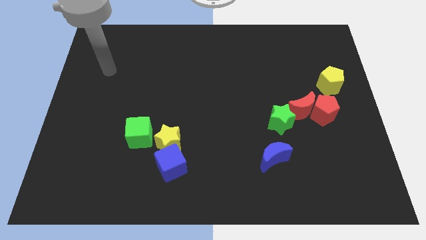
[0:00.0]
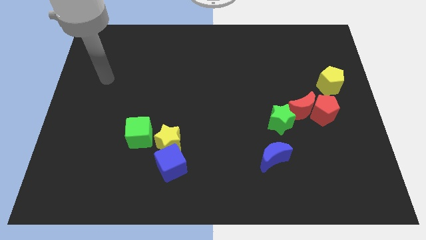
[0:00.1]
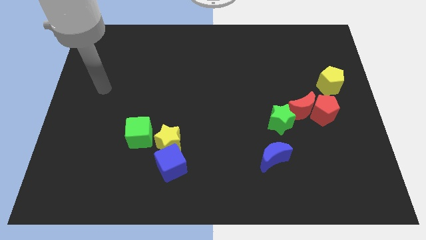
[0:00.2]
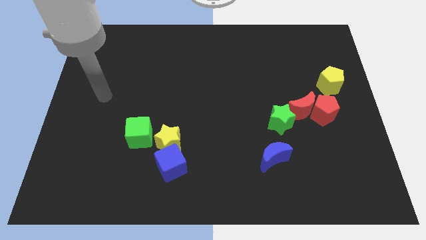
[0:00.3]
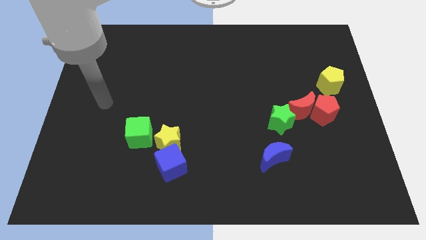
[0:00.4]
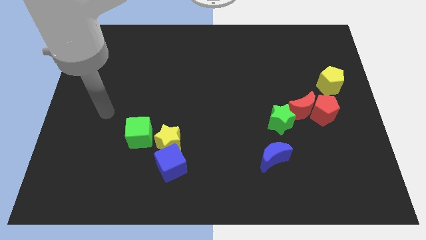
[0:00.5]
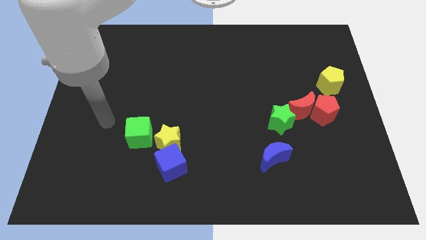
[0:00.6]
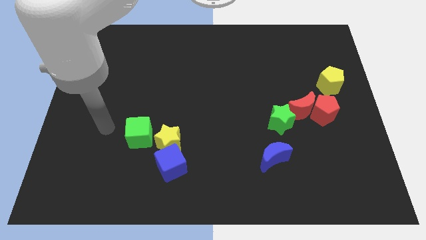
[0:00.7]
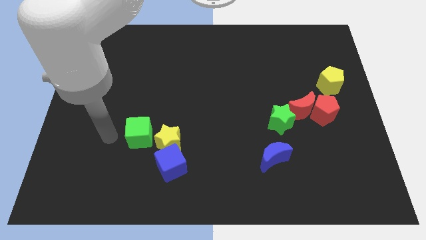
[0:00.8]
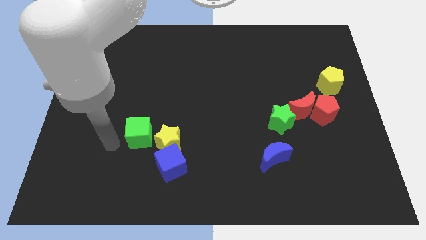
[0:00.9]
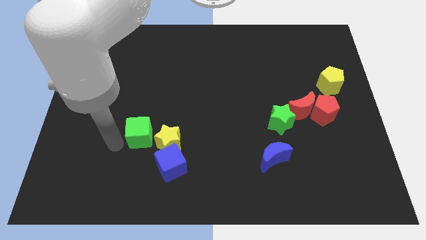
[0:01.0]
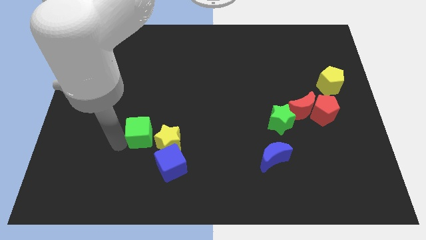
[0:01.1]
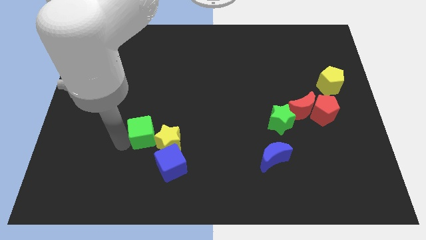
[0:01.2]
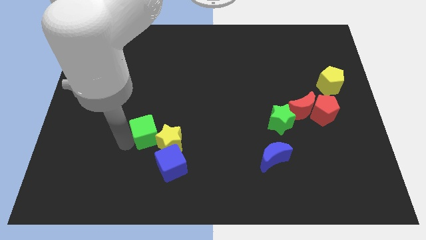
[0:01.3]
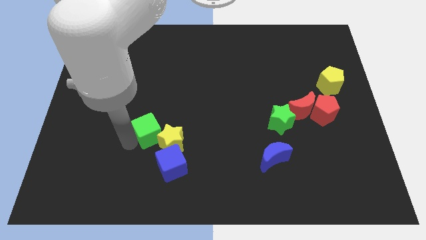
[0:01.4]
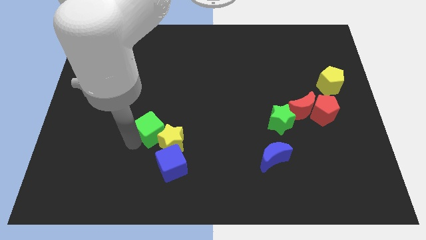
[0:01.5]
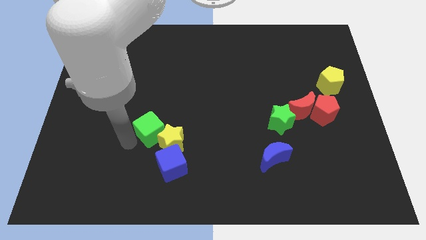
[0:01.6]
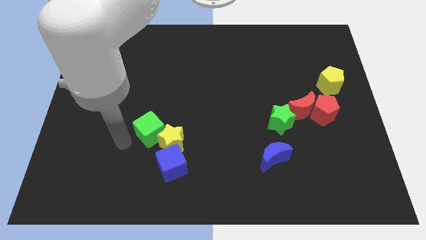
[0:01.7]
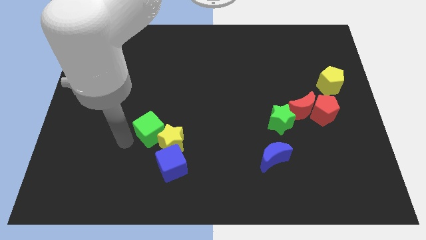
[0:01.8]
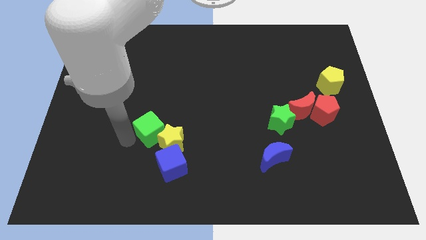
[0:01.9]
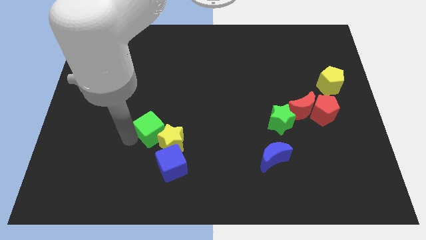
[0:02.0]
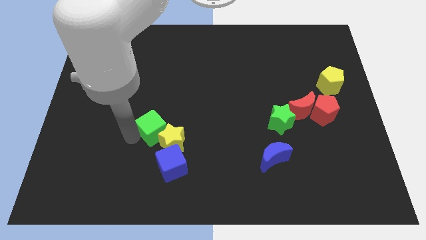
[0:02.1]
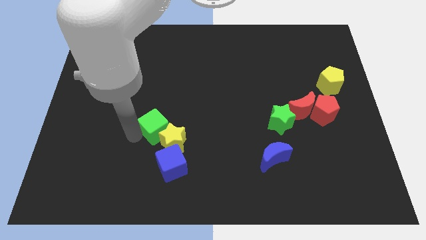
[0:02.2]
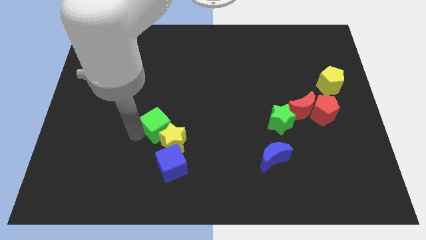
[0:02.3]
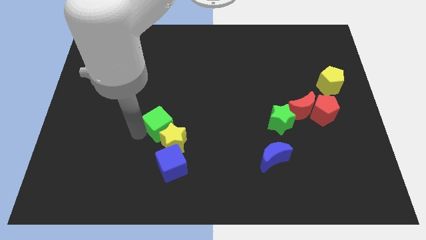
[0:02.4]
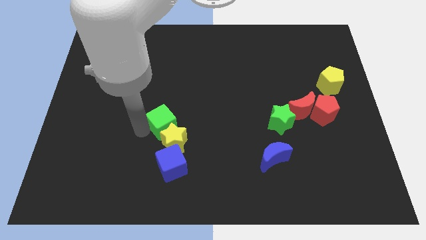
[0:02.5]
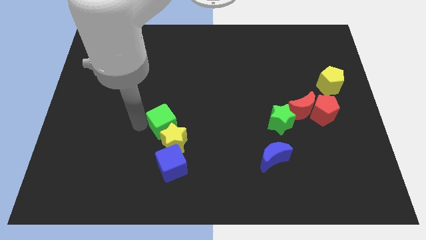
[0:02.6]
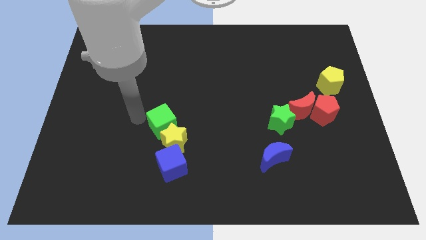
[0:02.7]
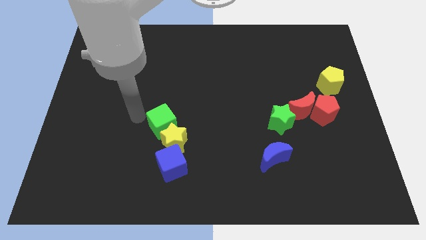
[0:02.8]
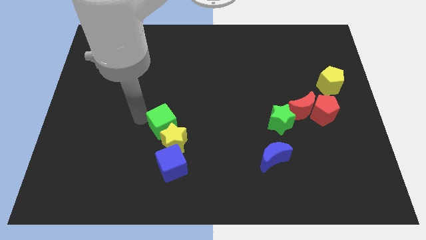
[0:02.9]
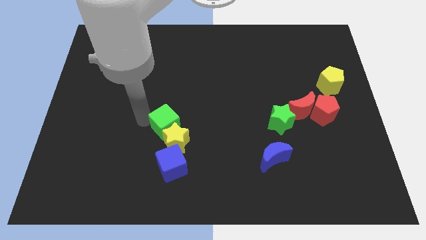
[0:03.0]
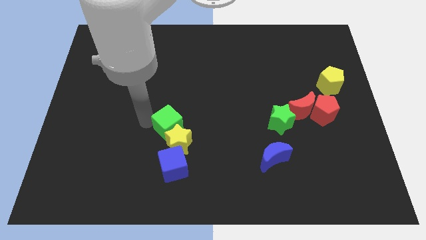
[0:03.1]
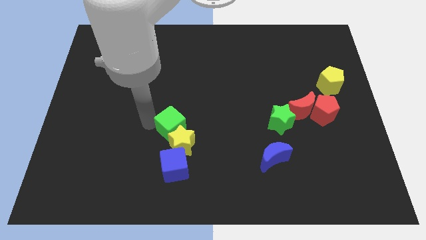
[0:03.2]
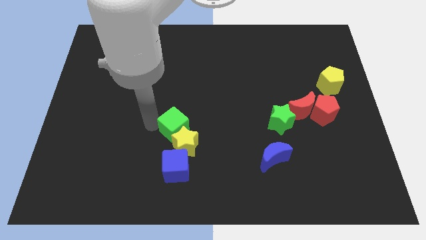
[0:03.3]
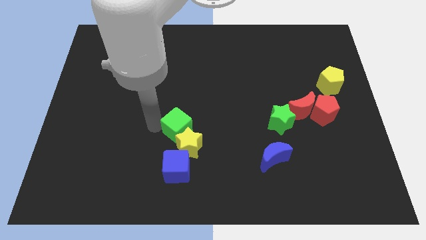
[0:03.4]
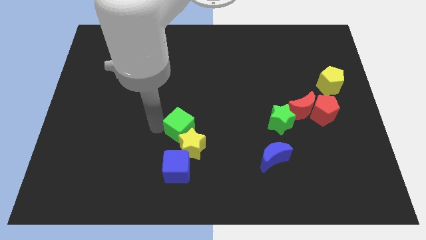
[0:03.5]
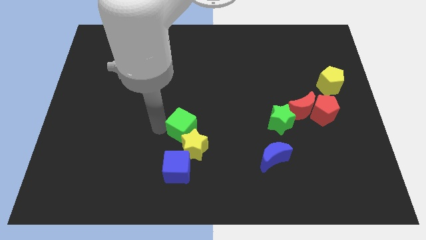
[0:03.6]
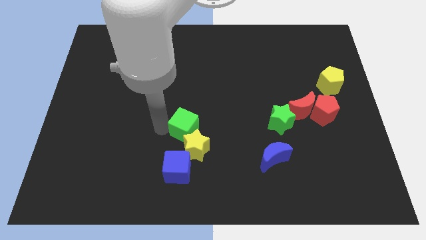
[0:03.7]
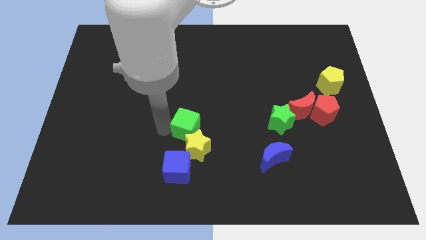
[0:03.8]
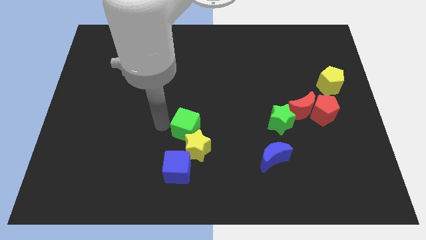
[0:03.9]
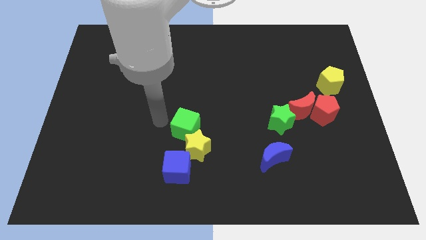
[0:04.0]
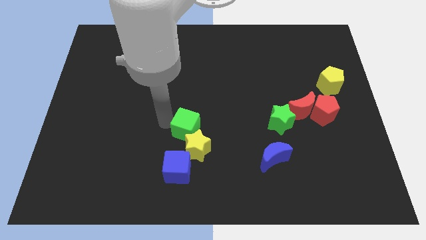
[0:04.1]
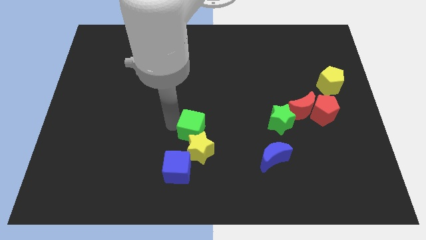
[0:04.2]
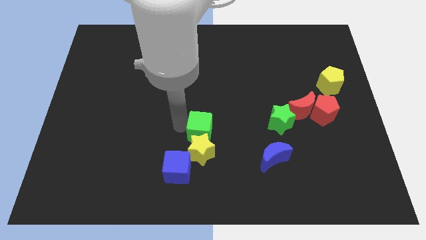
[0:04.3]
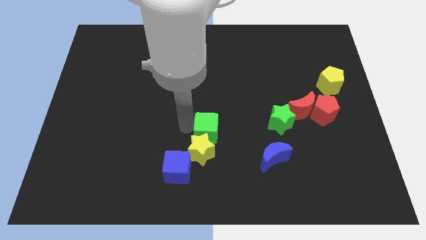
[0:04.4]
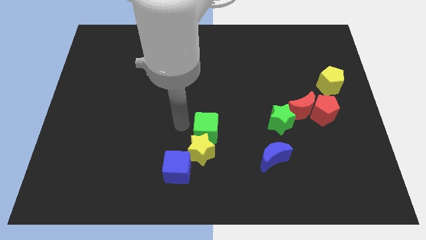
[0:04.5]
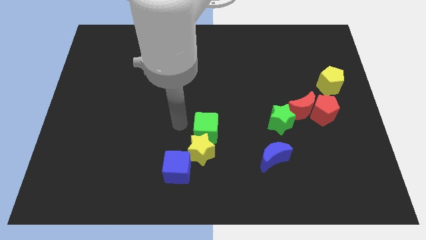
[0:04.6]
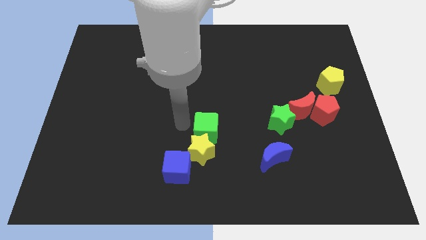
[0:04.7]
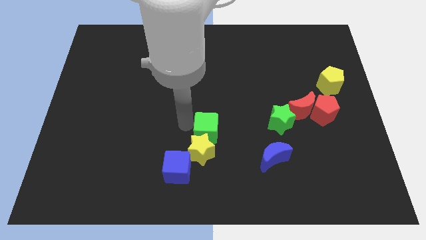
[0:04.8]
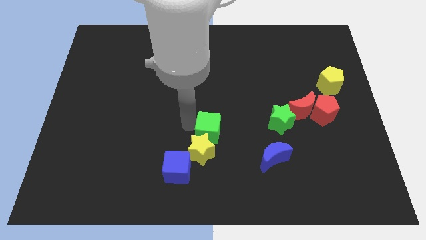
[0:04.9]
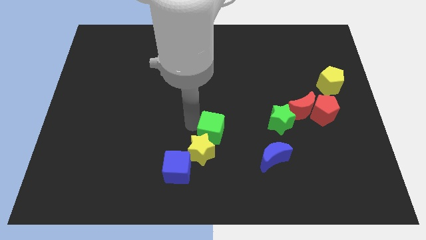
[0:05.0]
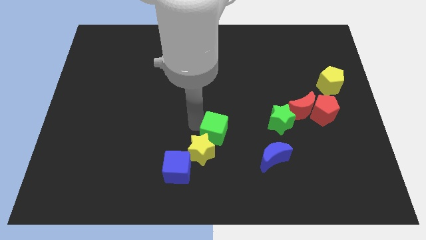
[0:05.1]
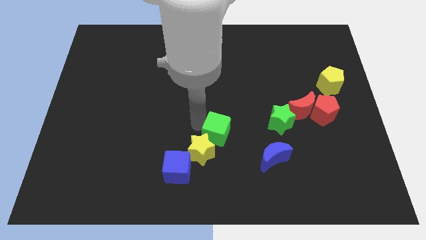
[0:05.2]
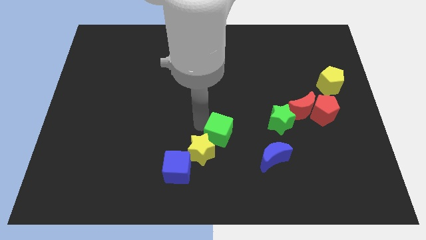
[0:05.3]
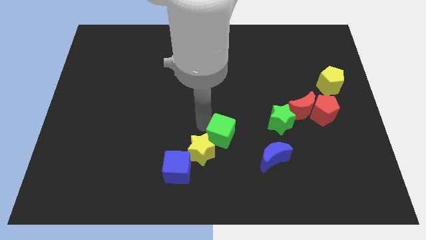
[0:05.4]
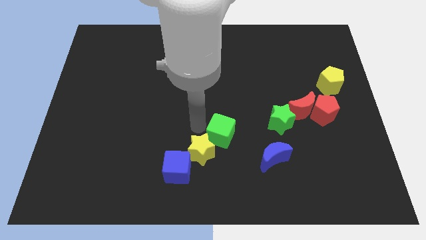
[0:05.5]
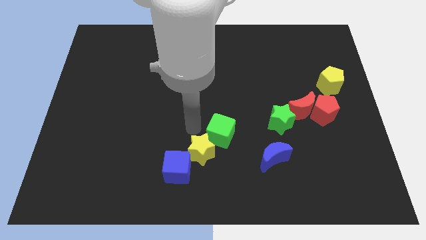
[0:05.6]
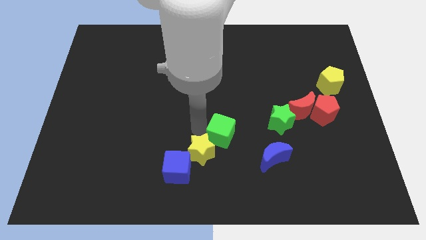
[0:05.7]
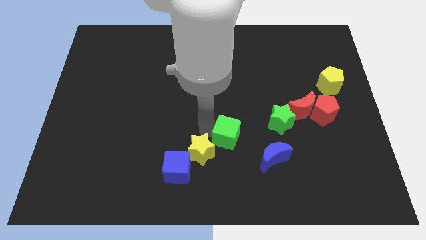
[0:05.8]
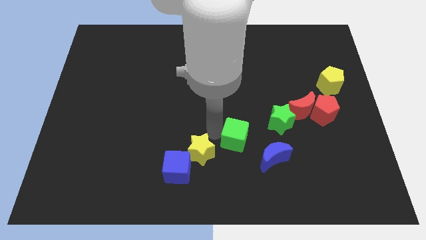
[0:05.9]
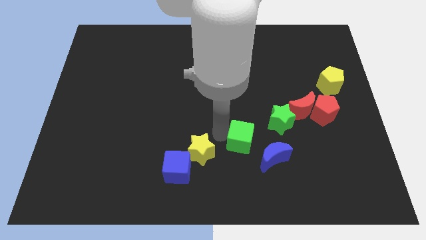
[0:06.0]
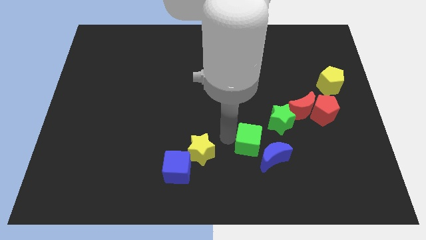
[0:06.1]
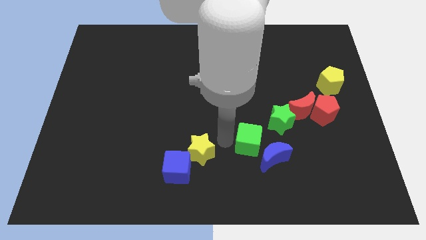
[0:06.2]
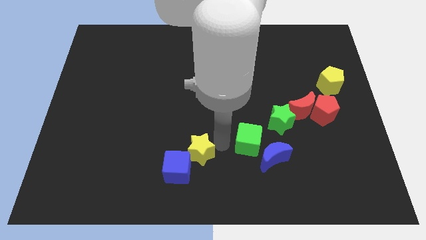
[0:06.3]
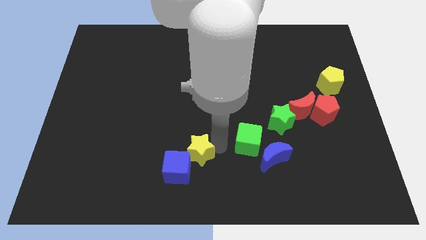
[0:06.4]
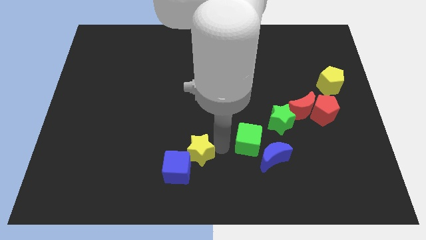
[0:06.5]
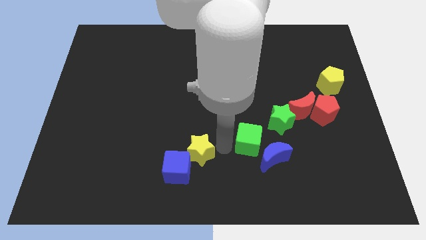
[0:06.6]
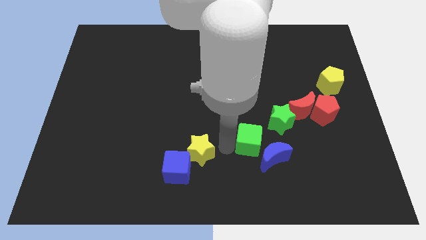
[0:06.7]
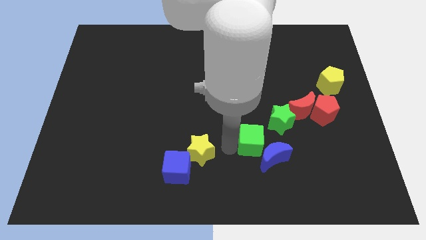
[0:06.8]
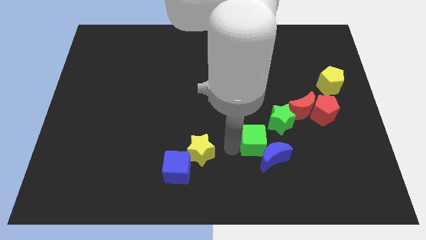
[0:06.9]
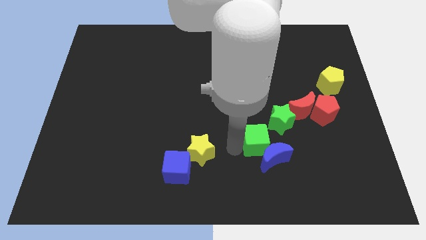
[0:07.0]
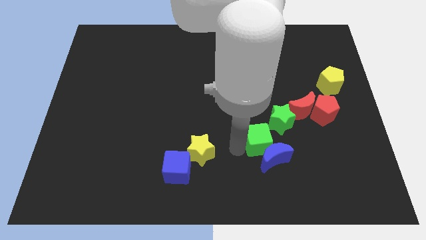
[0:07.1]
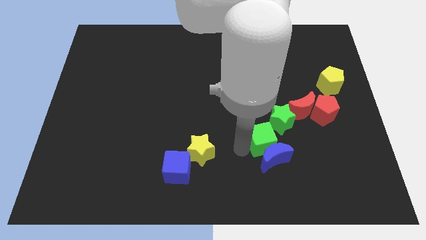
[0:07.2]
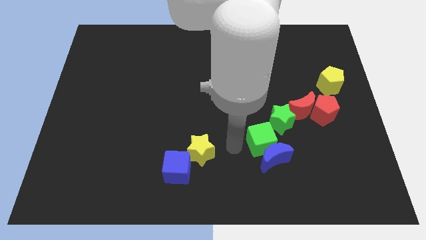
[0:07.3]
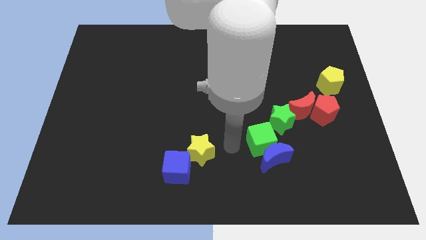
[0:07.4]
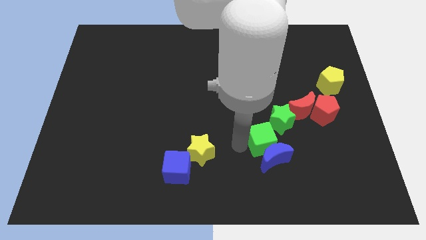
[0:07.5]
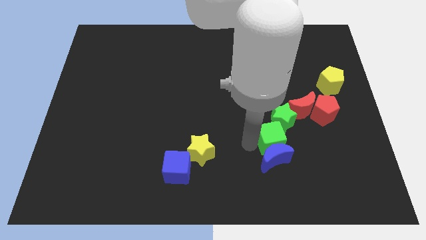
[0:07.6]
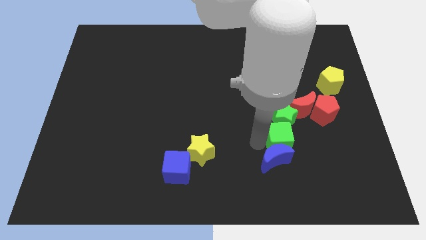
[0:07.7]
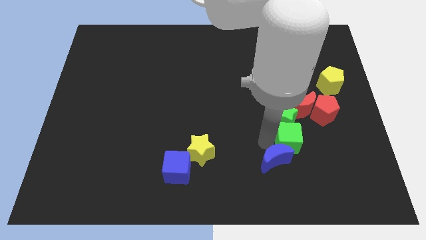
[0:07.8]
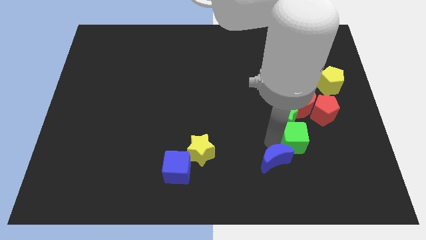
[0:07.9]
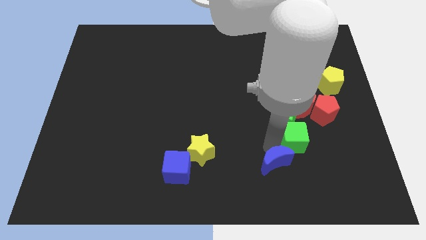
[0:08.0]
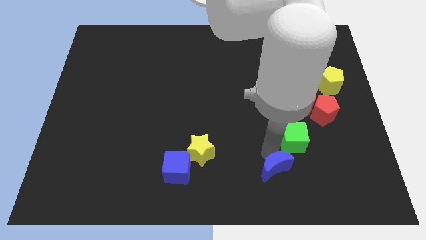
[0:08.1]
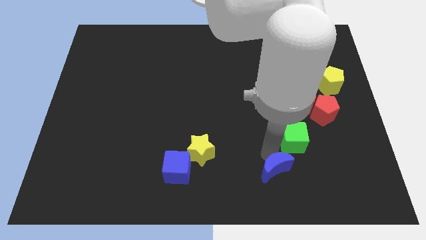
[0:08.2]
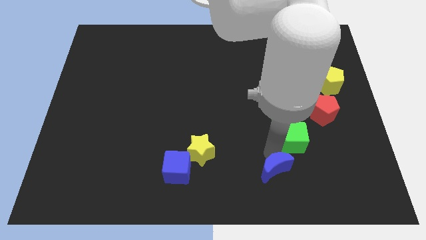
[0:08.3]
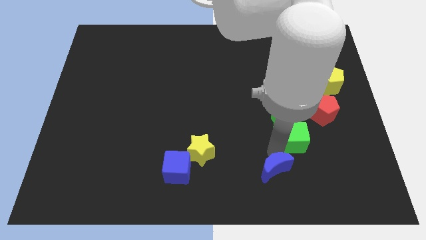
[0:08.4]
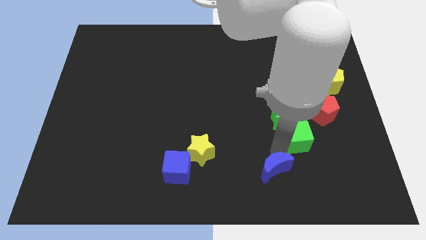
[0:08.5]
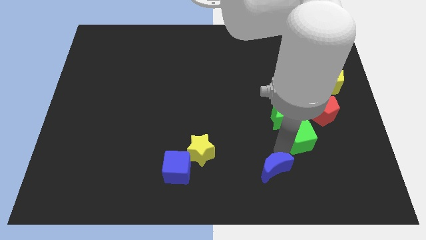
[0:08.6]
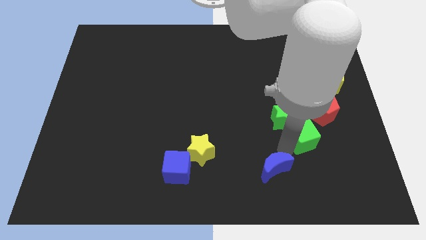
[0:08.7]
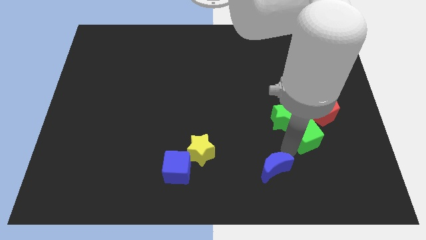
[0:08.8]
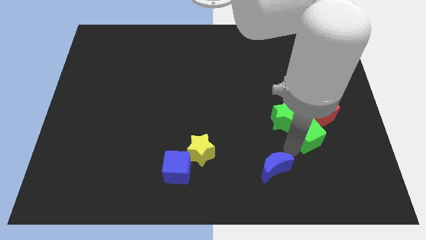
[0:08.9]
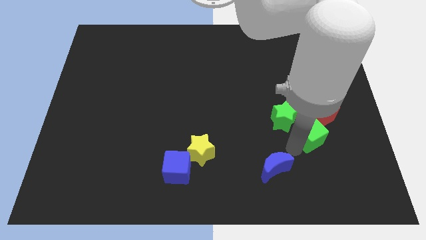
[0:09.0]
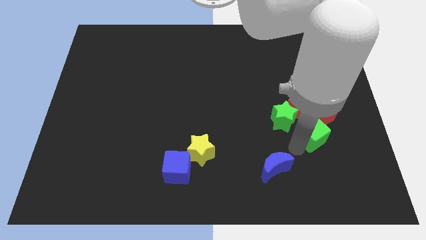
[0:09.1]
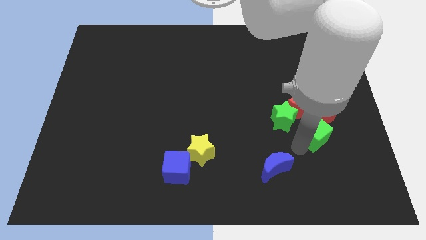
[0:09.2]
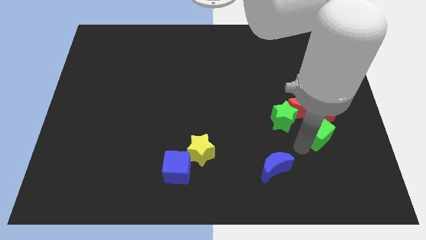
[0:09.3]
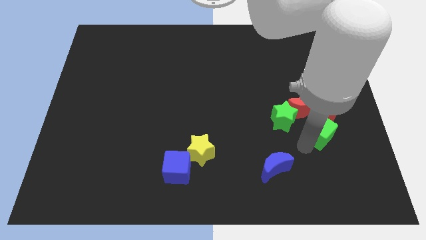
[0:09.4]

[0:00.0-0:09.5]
slide the green cube close to the red pentagon
